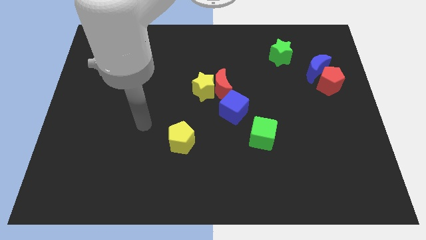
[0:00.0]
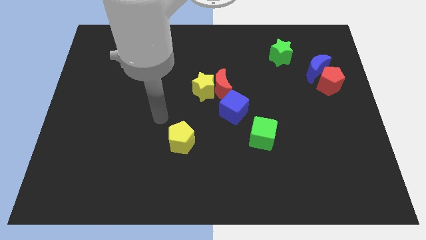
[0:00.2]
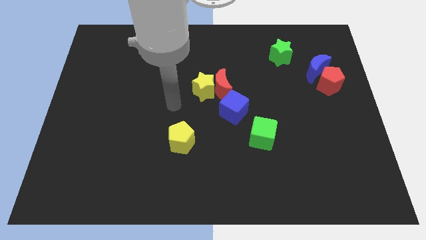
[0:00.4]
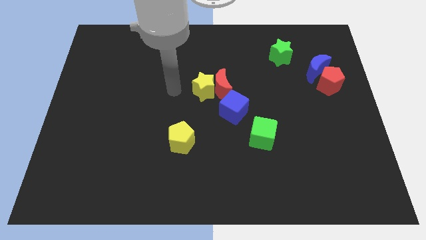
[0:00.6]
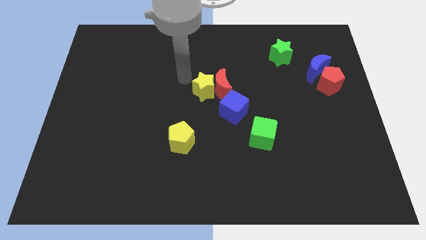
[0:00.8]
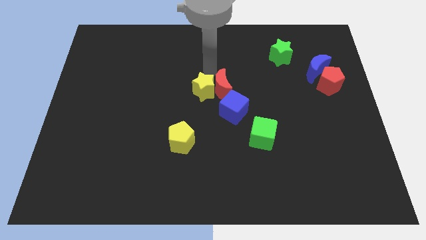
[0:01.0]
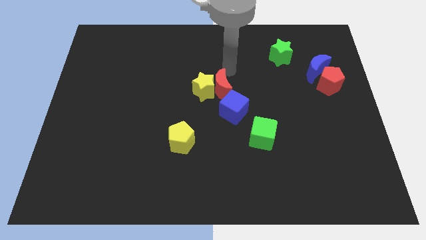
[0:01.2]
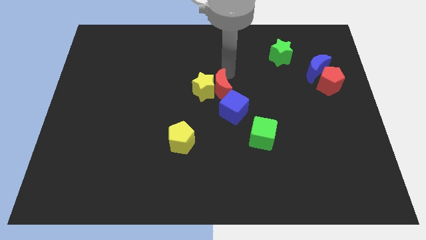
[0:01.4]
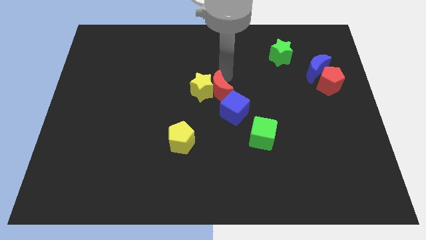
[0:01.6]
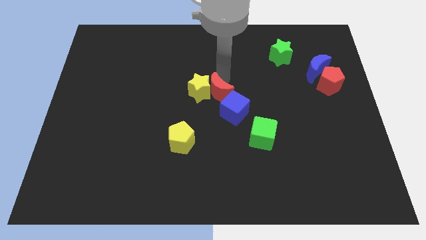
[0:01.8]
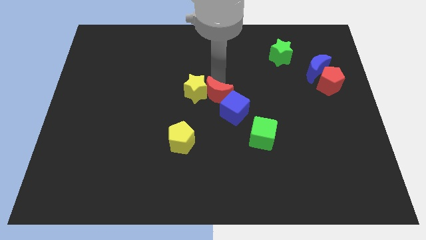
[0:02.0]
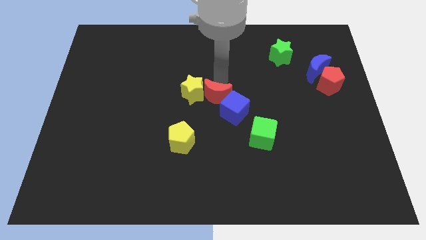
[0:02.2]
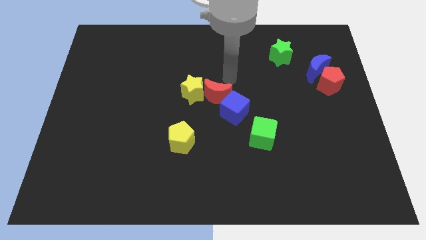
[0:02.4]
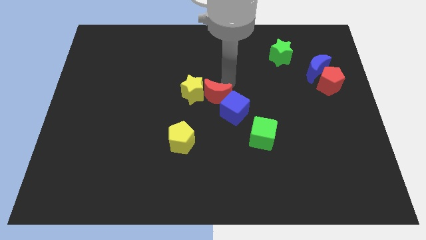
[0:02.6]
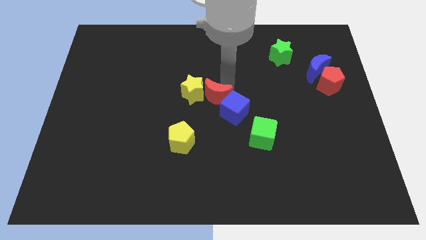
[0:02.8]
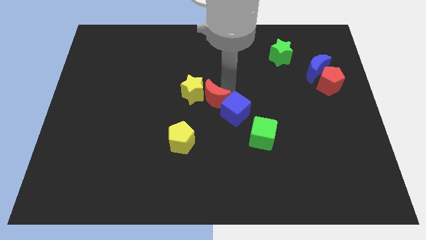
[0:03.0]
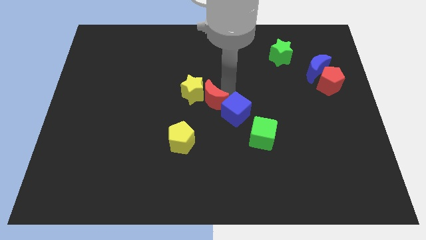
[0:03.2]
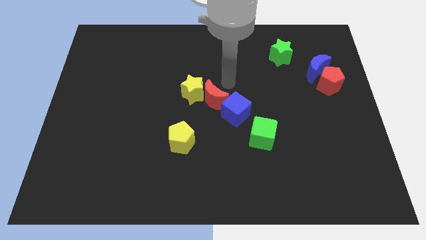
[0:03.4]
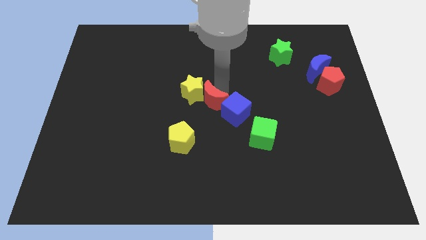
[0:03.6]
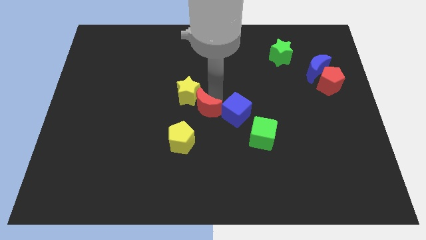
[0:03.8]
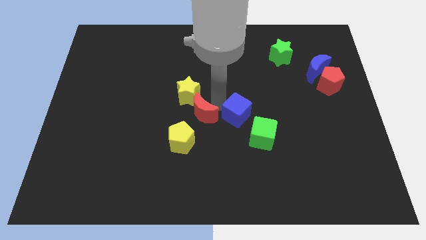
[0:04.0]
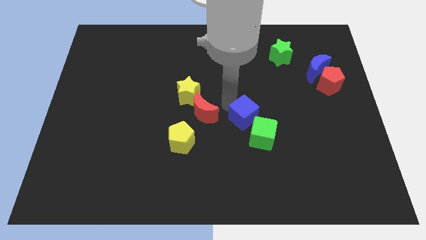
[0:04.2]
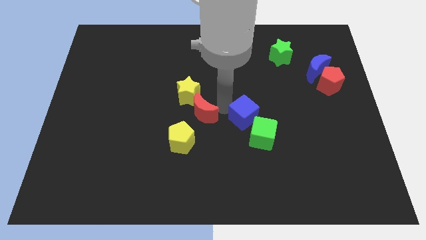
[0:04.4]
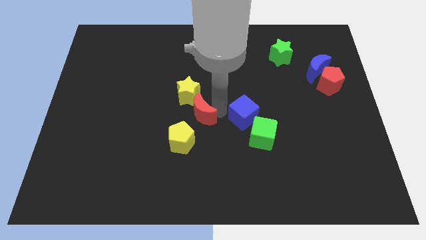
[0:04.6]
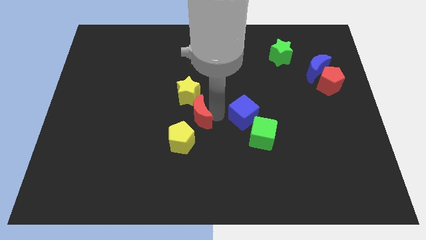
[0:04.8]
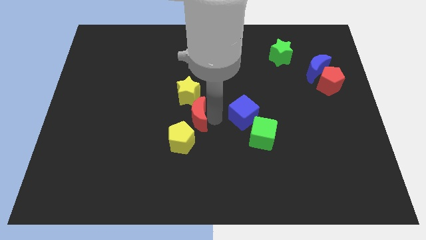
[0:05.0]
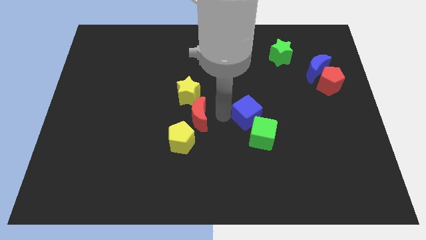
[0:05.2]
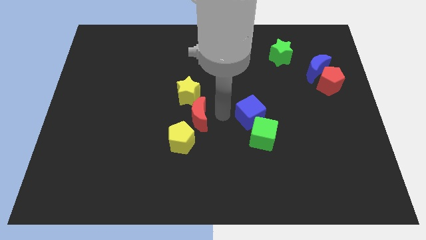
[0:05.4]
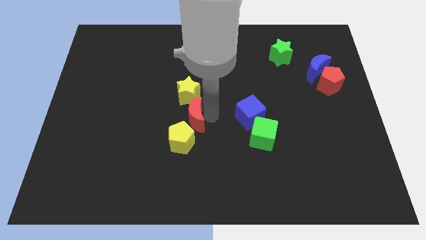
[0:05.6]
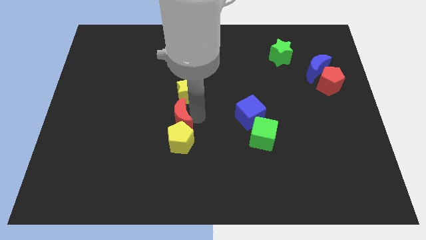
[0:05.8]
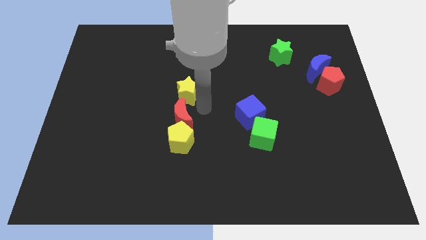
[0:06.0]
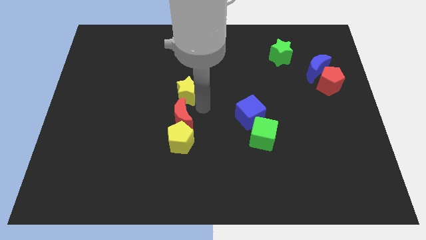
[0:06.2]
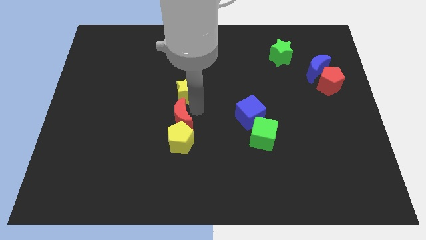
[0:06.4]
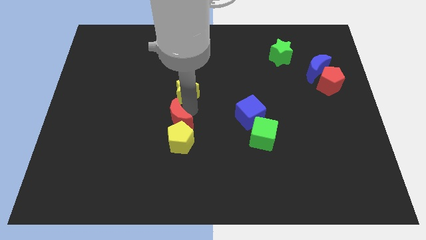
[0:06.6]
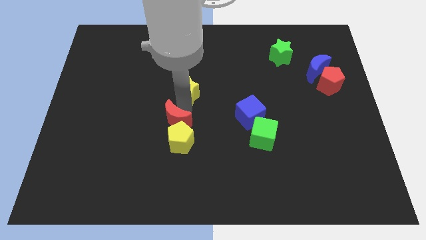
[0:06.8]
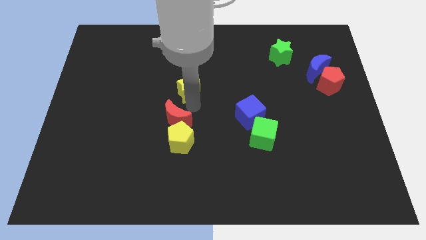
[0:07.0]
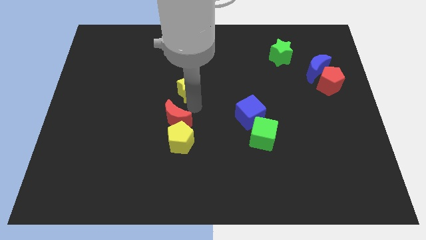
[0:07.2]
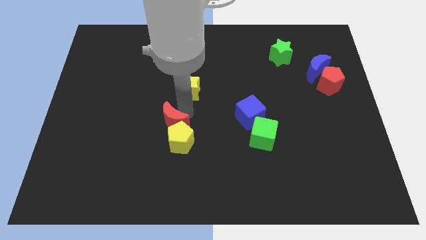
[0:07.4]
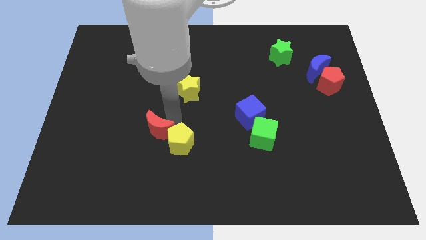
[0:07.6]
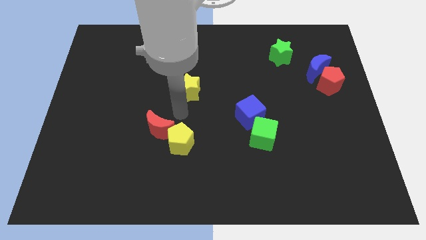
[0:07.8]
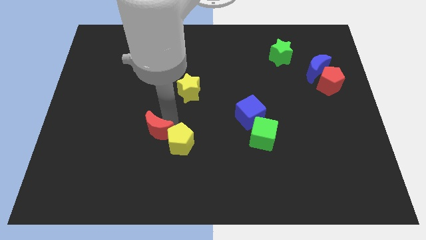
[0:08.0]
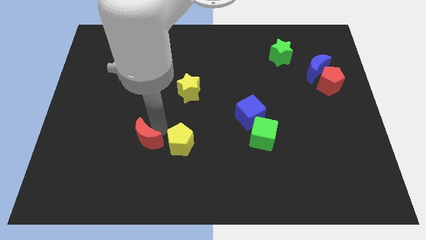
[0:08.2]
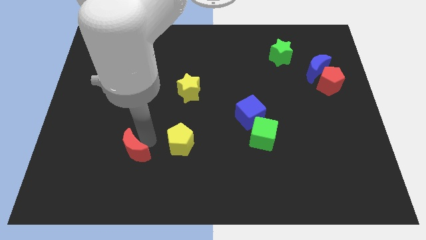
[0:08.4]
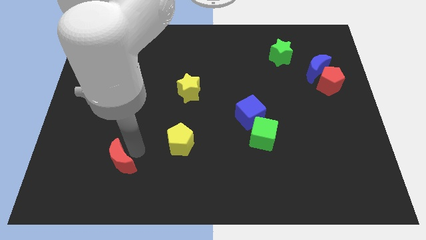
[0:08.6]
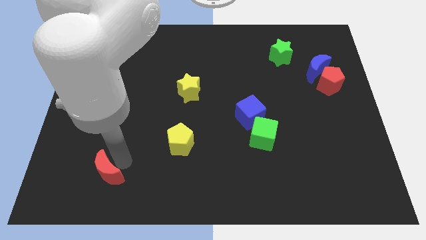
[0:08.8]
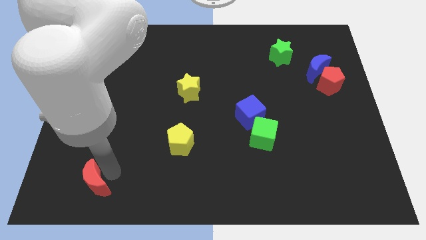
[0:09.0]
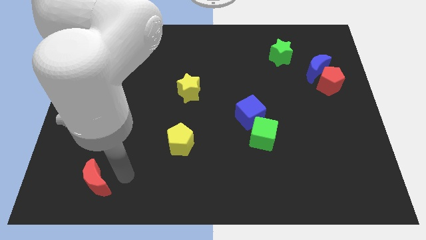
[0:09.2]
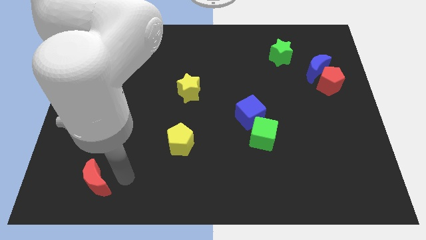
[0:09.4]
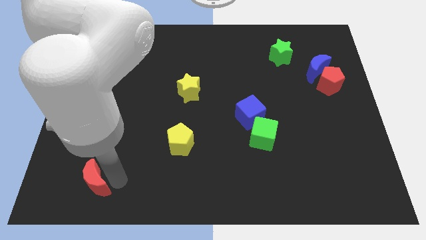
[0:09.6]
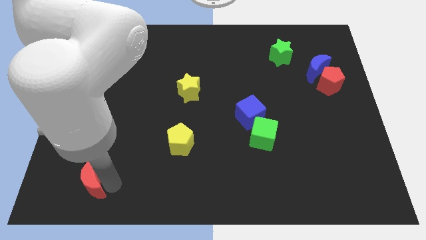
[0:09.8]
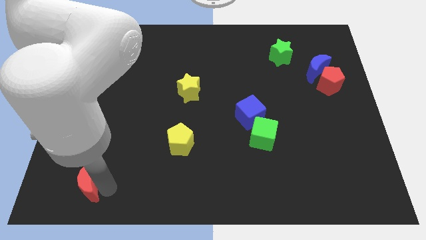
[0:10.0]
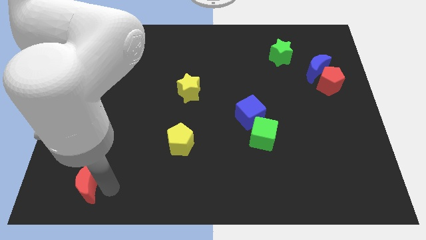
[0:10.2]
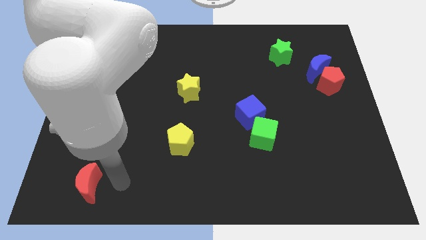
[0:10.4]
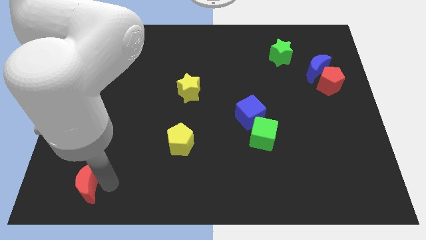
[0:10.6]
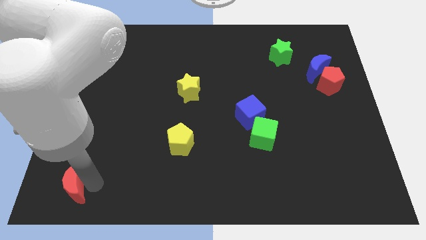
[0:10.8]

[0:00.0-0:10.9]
move the red moon to the lower left corner

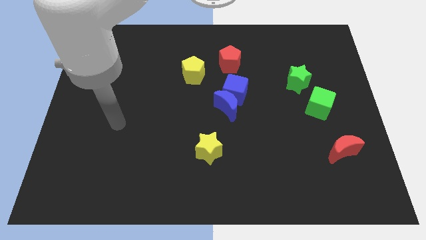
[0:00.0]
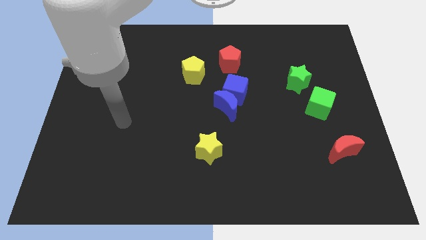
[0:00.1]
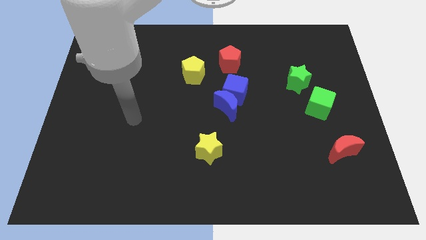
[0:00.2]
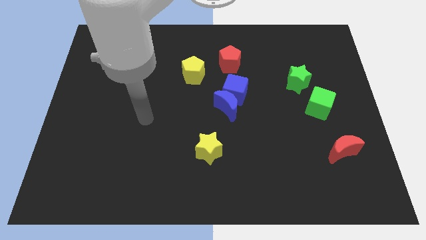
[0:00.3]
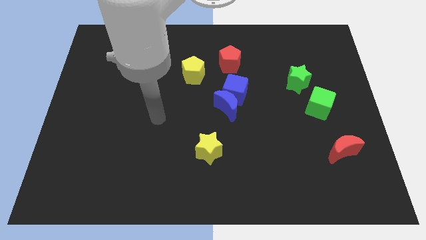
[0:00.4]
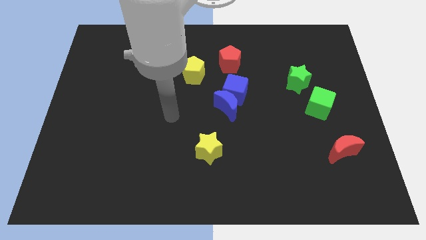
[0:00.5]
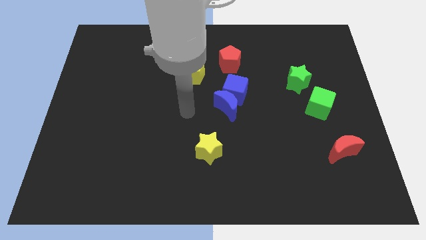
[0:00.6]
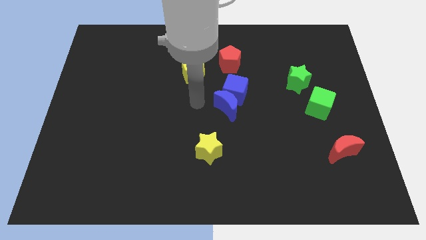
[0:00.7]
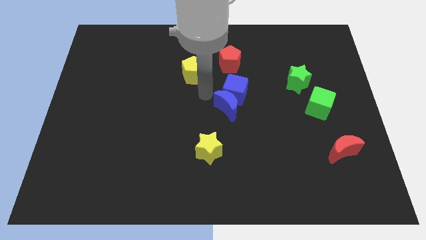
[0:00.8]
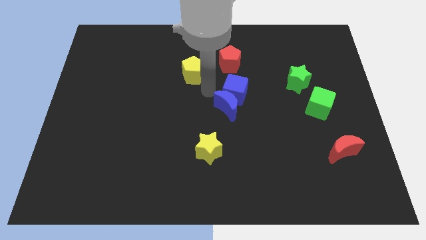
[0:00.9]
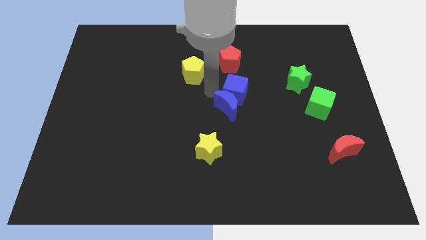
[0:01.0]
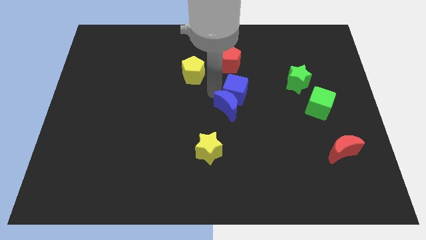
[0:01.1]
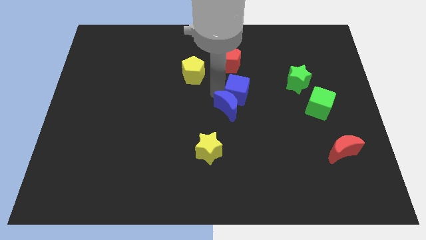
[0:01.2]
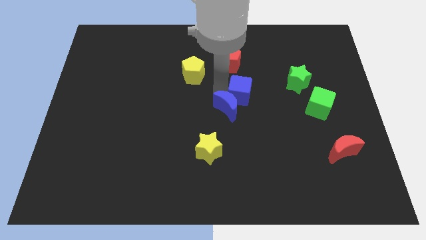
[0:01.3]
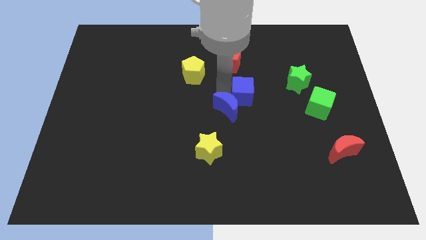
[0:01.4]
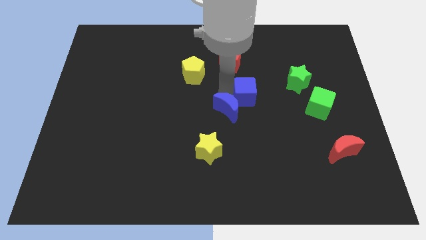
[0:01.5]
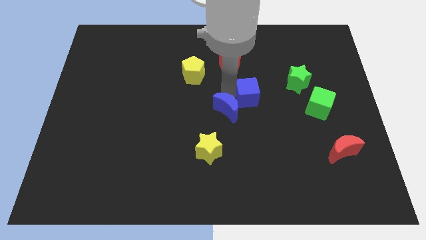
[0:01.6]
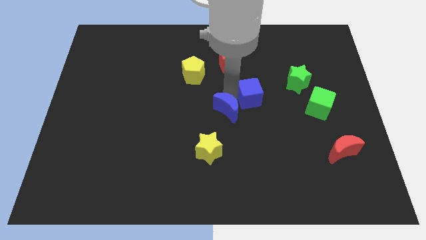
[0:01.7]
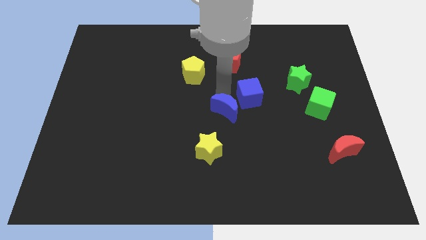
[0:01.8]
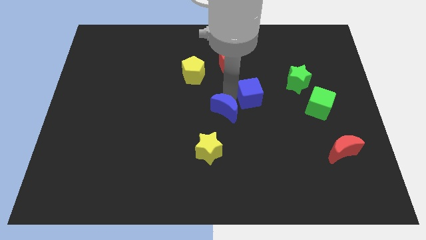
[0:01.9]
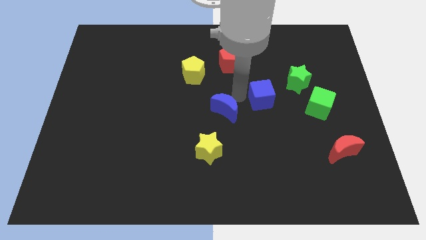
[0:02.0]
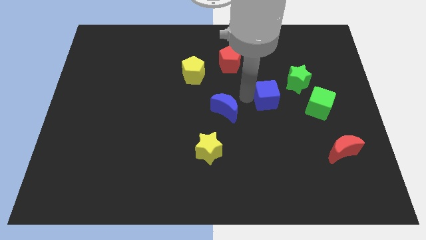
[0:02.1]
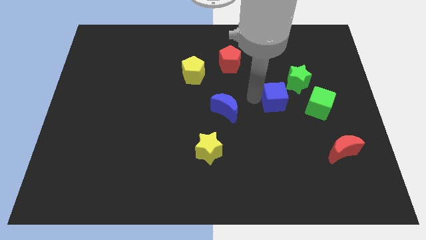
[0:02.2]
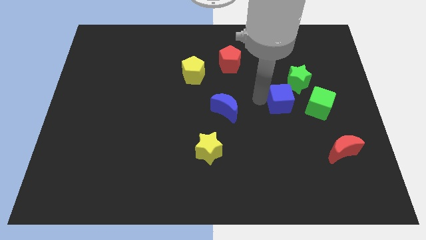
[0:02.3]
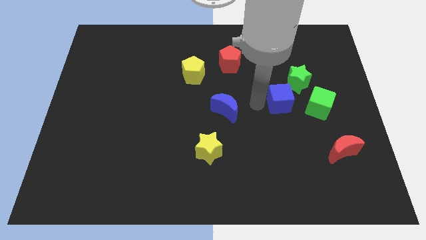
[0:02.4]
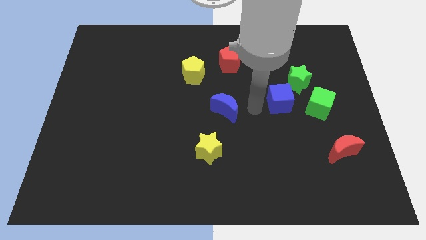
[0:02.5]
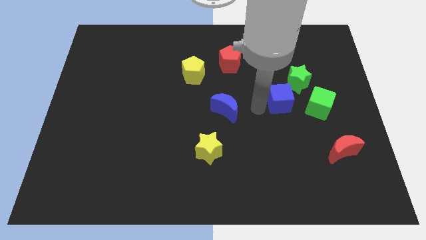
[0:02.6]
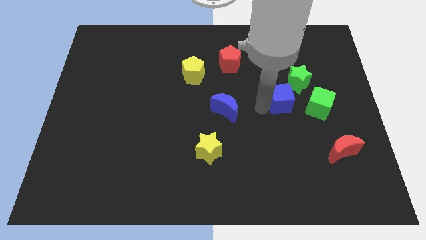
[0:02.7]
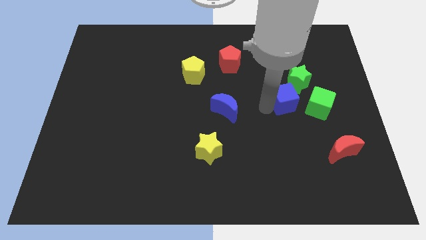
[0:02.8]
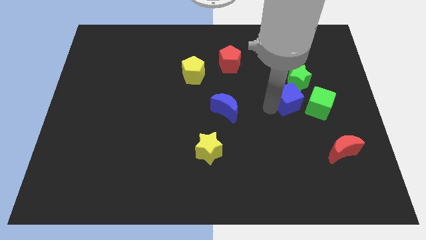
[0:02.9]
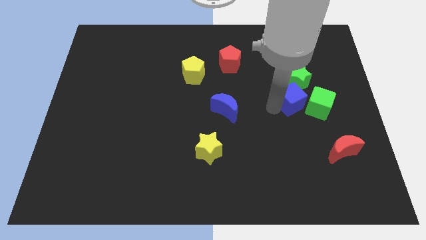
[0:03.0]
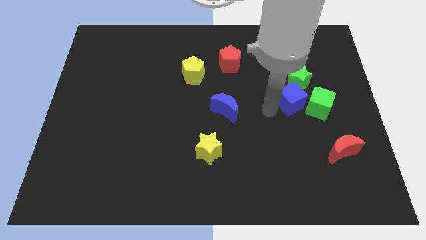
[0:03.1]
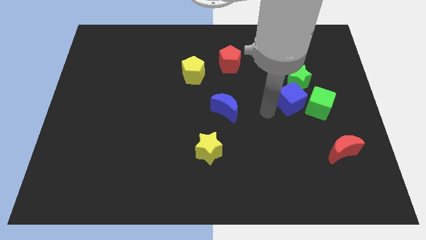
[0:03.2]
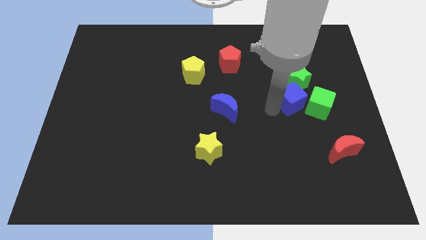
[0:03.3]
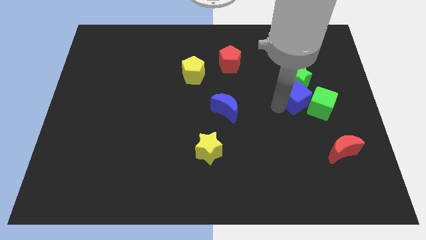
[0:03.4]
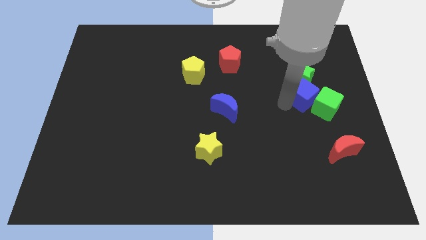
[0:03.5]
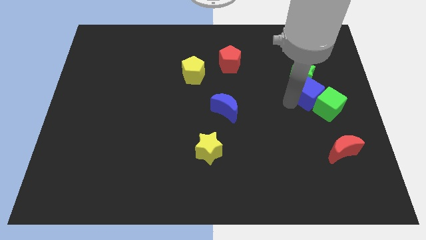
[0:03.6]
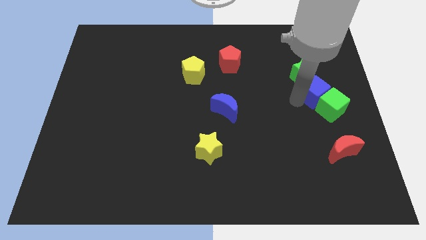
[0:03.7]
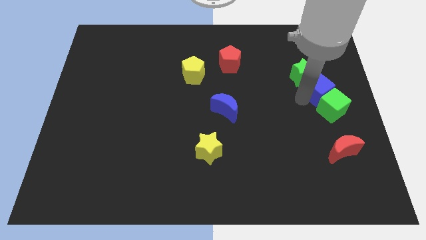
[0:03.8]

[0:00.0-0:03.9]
put the blue cube to the right side of the board
